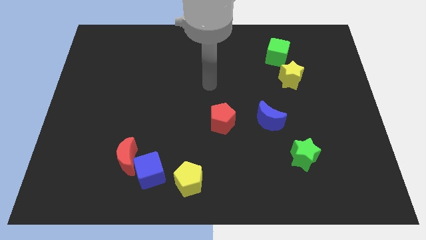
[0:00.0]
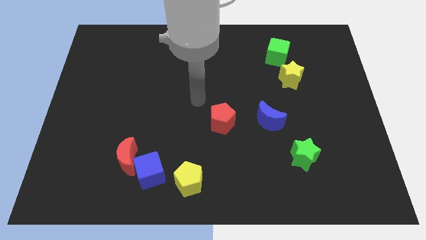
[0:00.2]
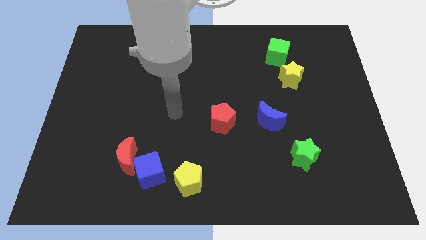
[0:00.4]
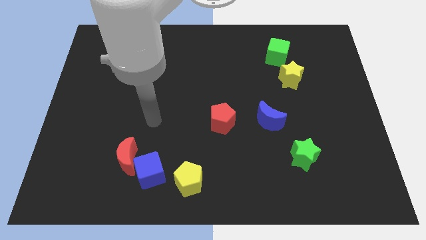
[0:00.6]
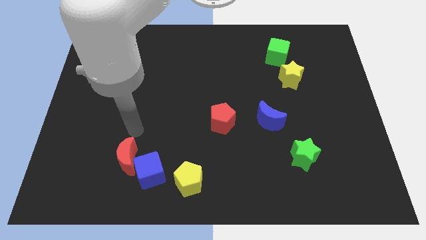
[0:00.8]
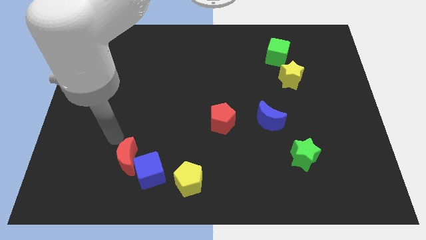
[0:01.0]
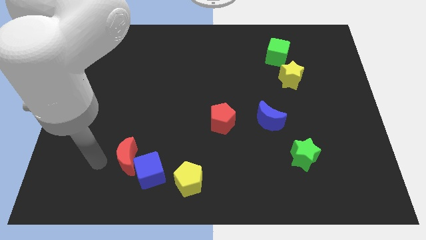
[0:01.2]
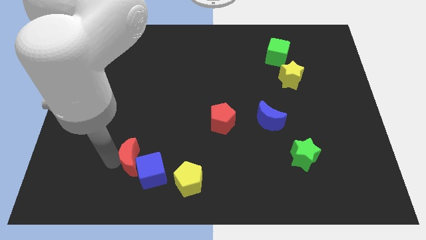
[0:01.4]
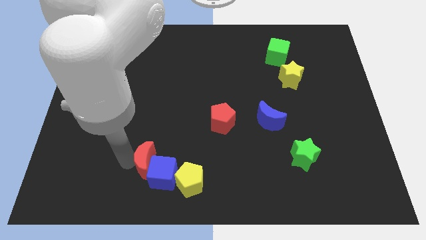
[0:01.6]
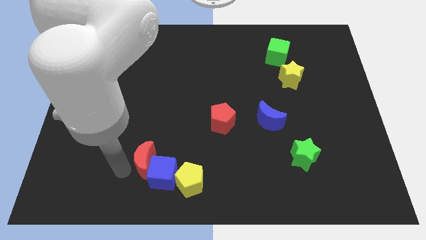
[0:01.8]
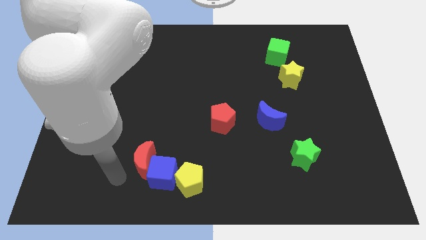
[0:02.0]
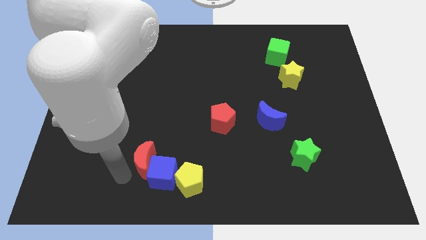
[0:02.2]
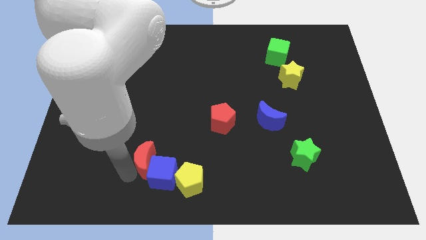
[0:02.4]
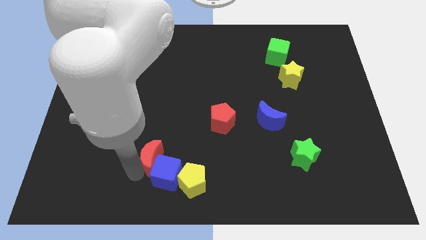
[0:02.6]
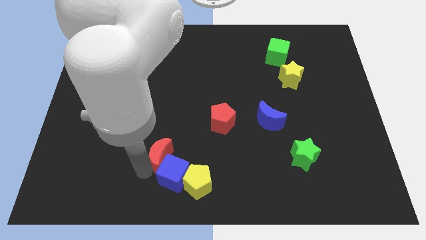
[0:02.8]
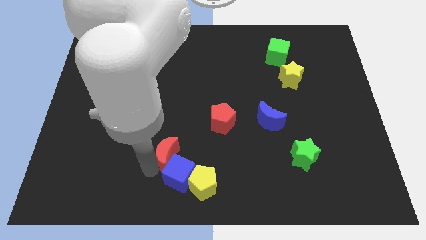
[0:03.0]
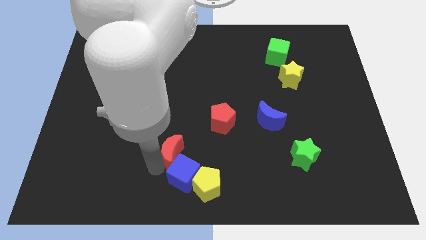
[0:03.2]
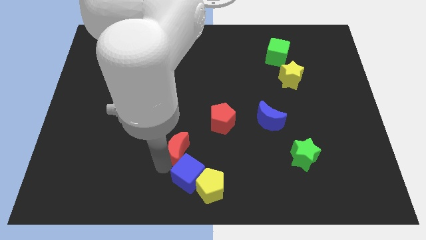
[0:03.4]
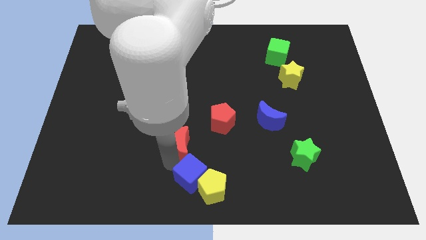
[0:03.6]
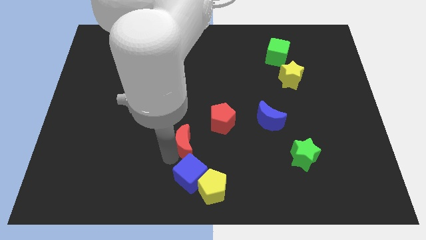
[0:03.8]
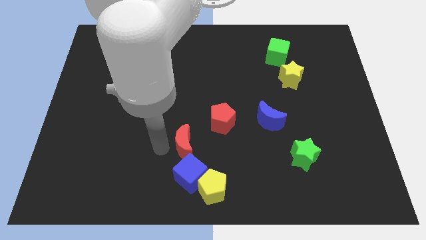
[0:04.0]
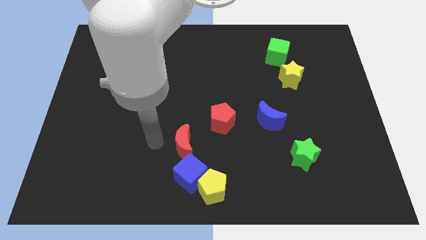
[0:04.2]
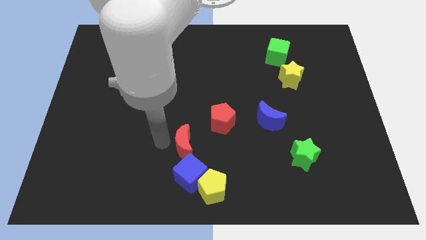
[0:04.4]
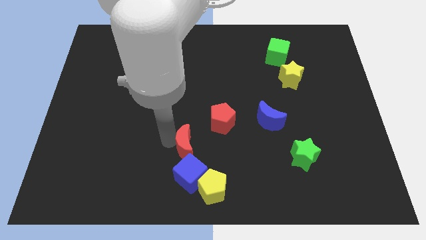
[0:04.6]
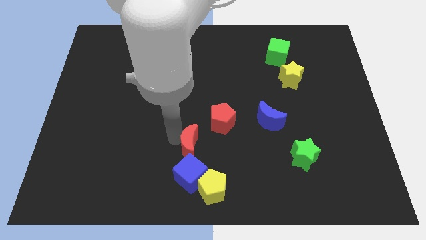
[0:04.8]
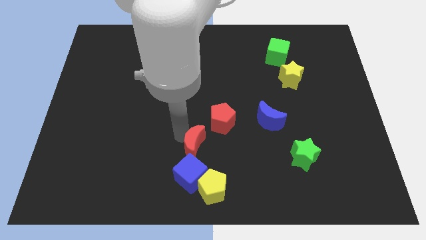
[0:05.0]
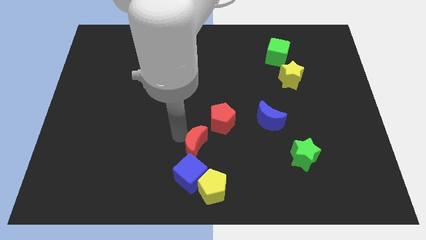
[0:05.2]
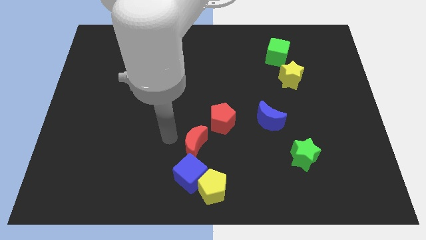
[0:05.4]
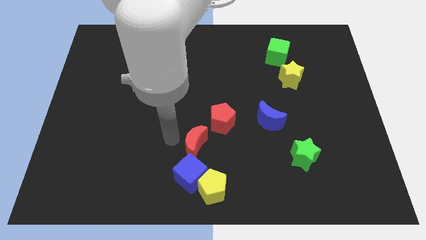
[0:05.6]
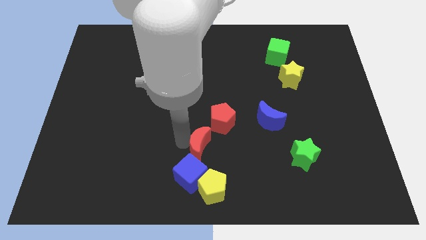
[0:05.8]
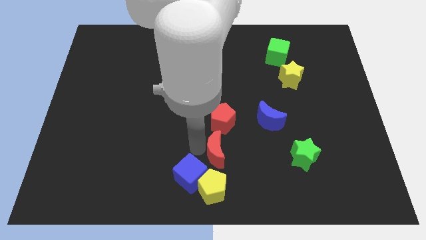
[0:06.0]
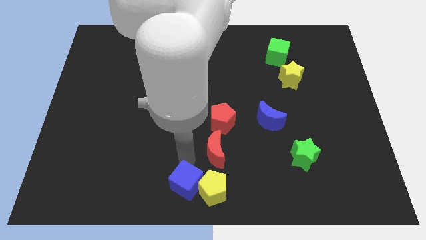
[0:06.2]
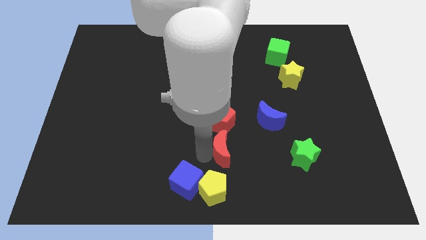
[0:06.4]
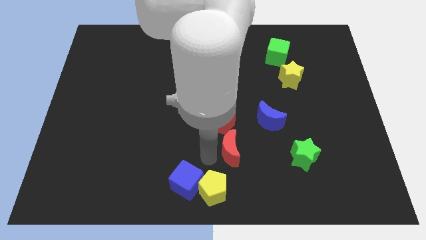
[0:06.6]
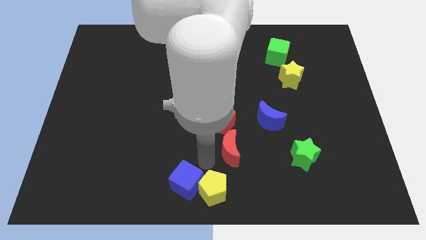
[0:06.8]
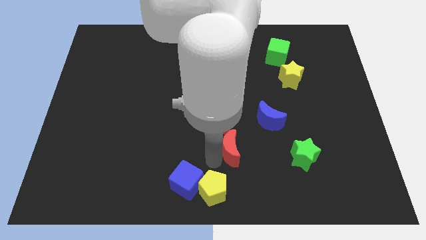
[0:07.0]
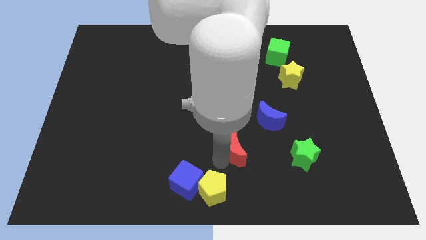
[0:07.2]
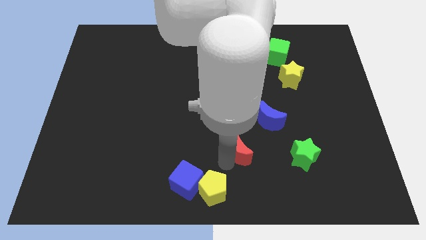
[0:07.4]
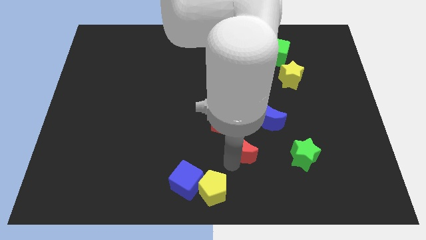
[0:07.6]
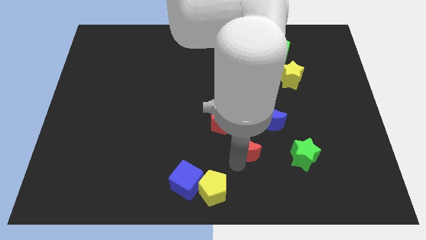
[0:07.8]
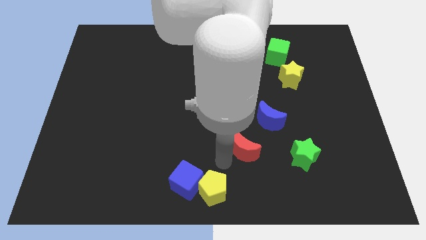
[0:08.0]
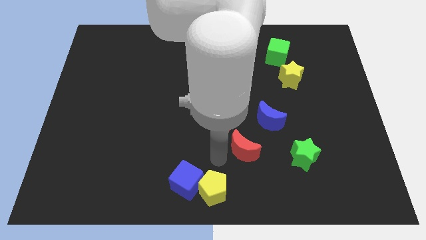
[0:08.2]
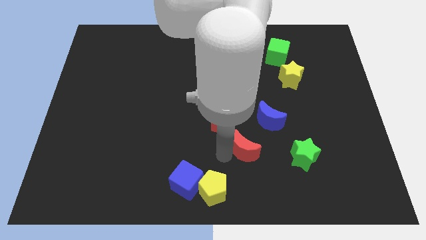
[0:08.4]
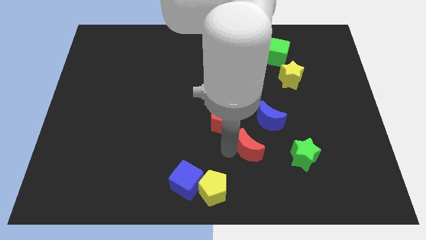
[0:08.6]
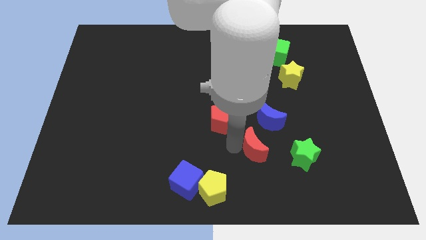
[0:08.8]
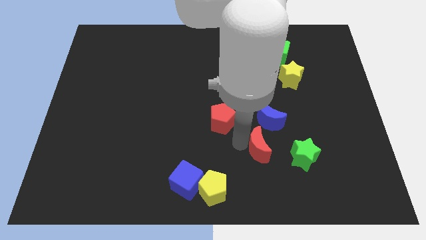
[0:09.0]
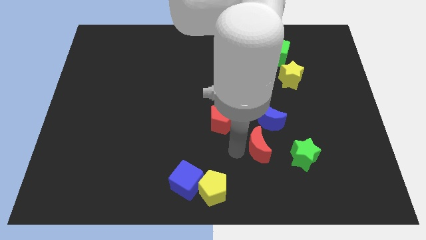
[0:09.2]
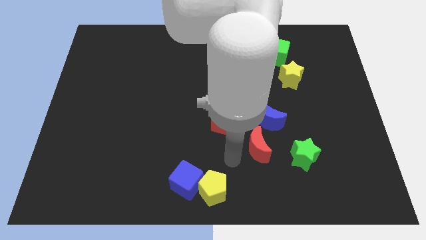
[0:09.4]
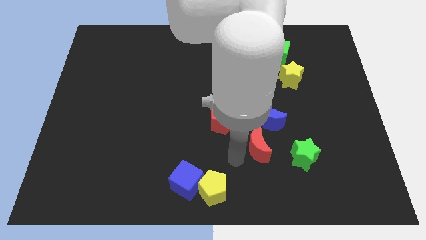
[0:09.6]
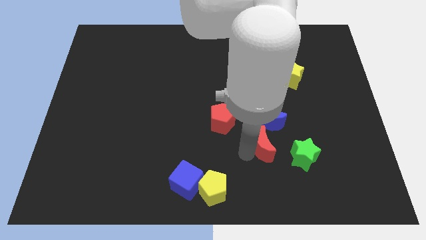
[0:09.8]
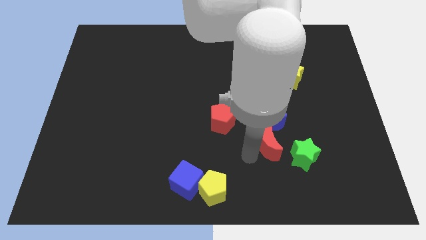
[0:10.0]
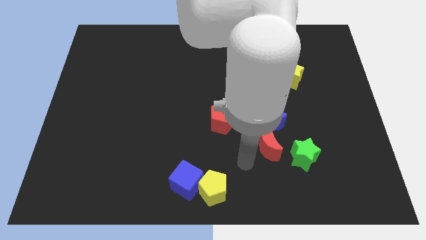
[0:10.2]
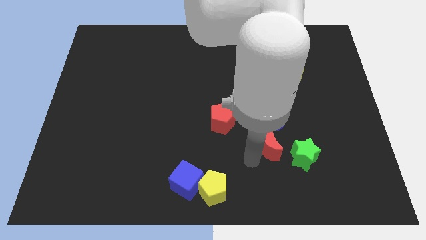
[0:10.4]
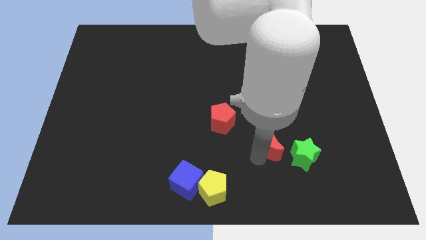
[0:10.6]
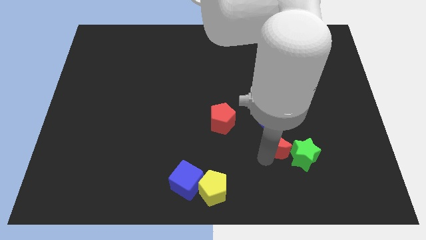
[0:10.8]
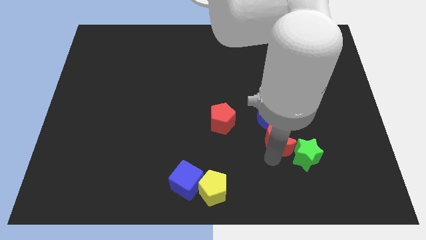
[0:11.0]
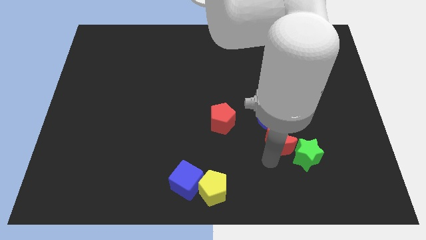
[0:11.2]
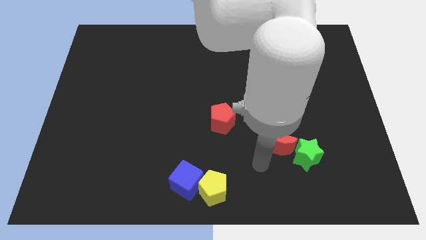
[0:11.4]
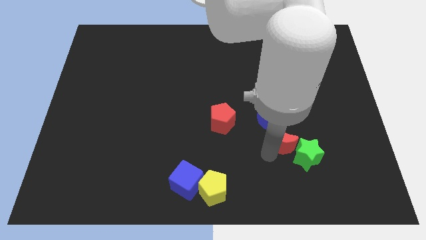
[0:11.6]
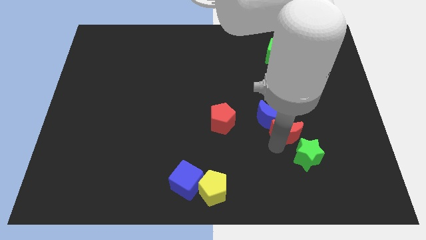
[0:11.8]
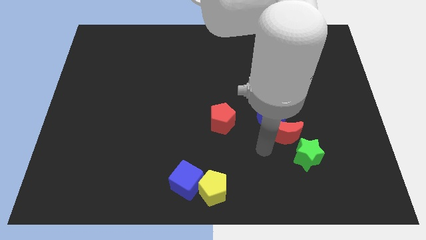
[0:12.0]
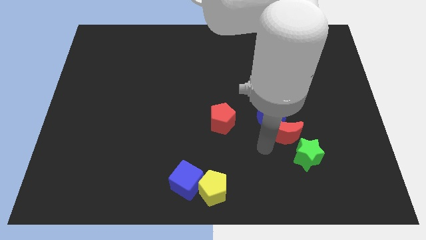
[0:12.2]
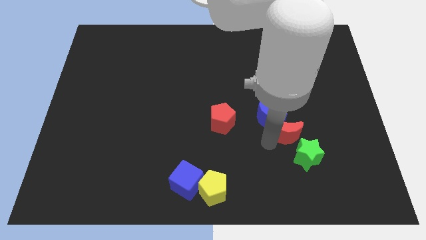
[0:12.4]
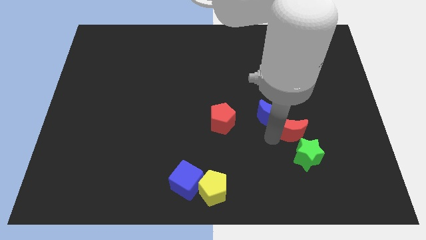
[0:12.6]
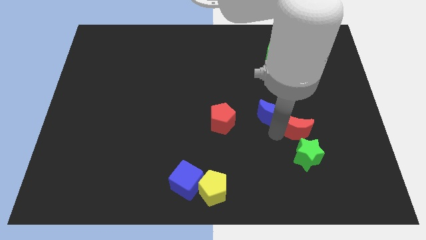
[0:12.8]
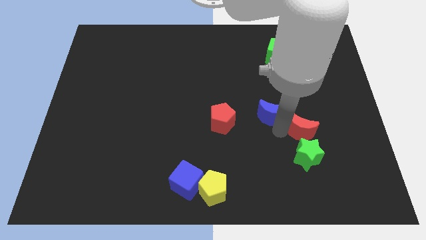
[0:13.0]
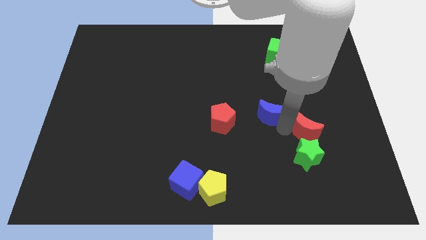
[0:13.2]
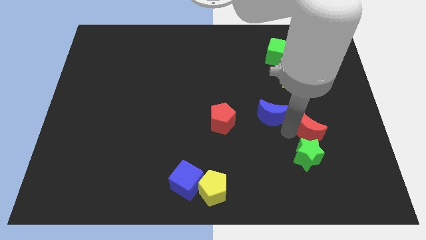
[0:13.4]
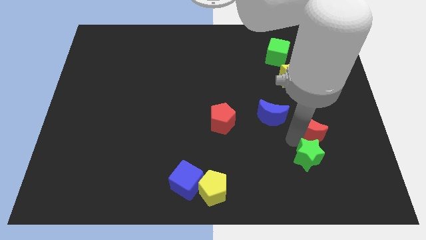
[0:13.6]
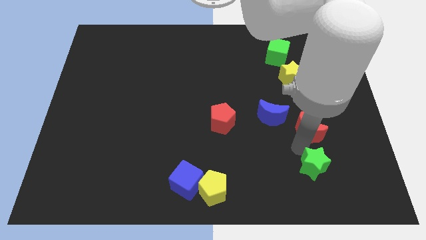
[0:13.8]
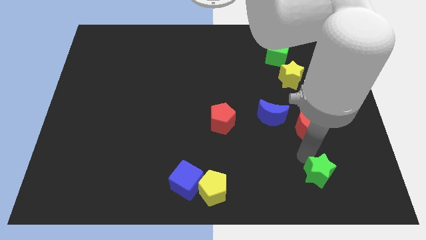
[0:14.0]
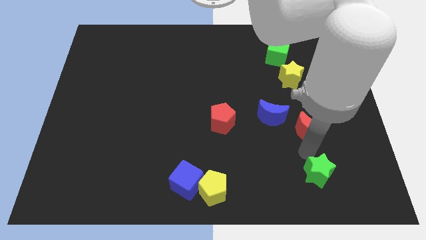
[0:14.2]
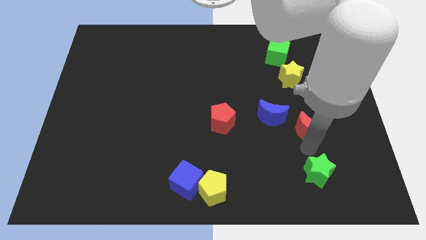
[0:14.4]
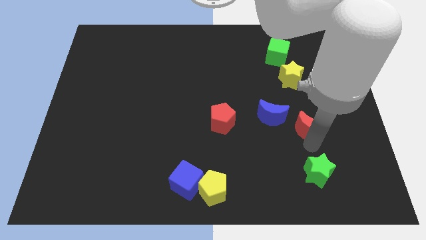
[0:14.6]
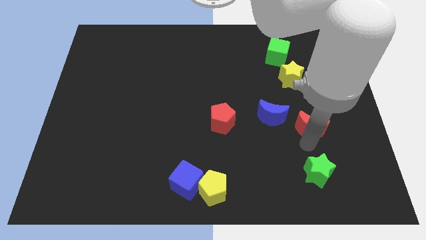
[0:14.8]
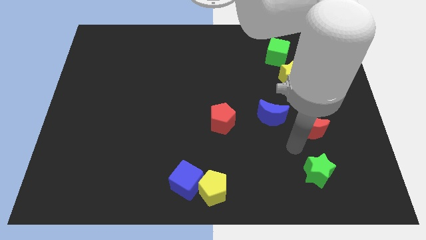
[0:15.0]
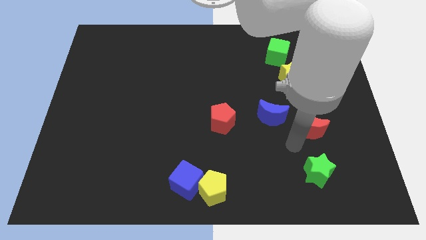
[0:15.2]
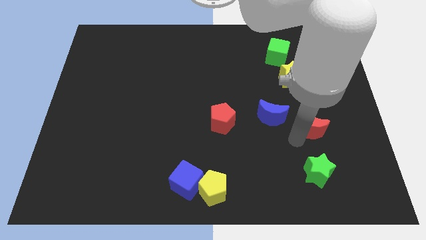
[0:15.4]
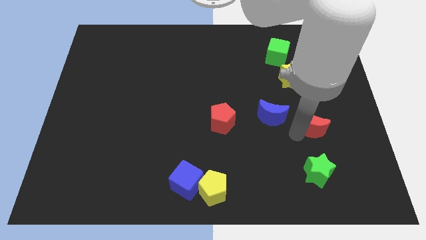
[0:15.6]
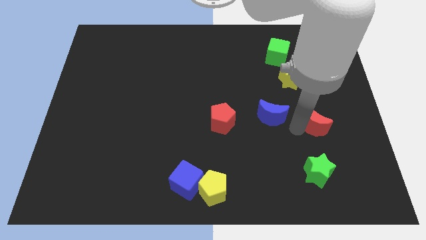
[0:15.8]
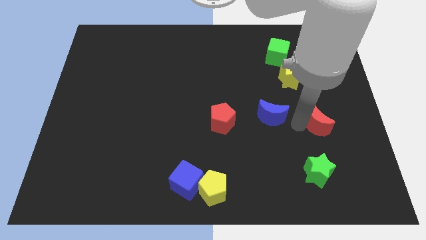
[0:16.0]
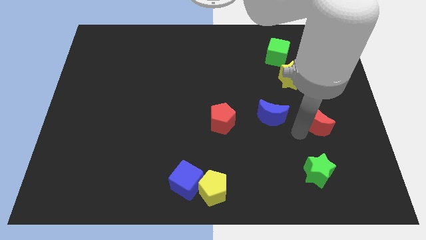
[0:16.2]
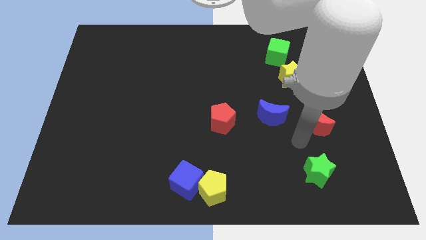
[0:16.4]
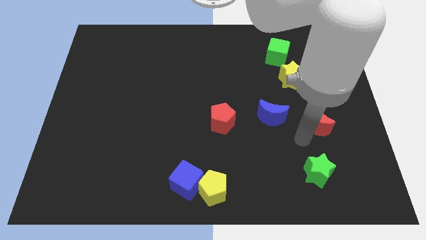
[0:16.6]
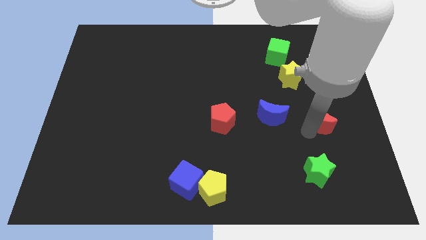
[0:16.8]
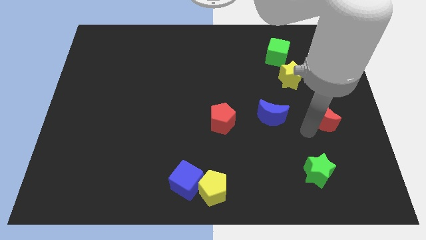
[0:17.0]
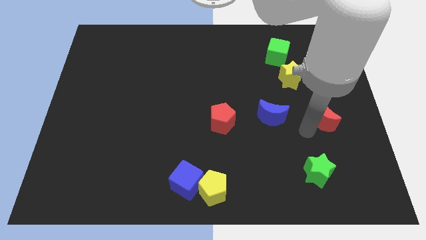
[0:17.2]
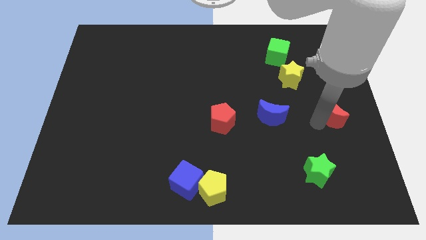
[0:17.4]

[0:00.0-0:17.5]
put the red moon to the right side
